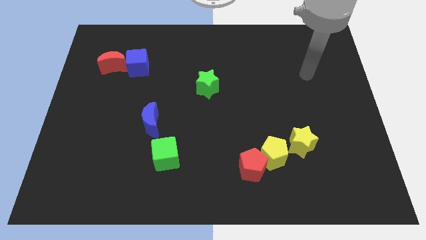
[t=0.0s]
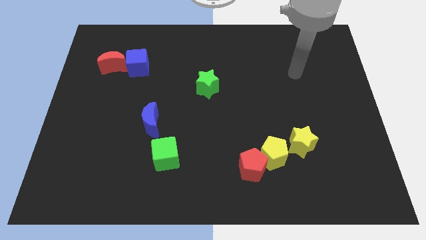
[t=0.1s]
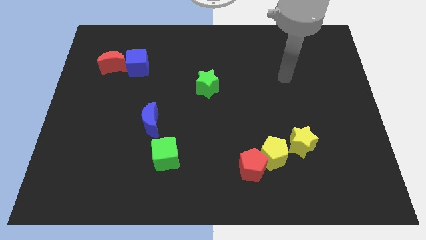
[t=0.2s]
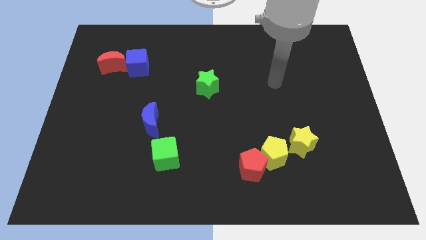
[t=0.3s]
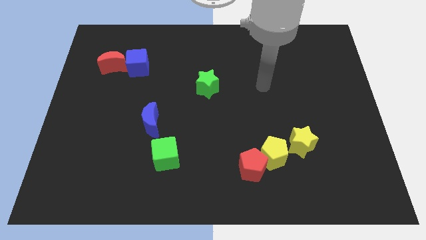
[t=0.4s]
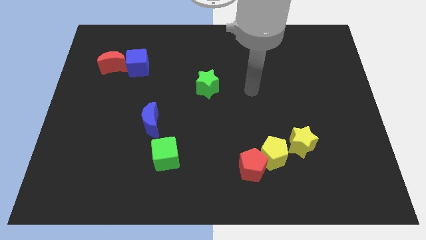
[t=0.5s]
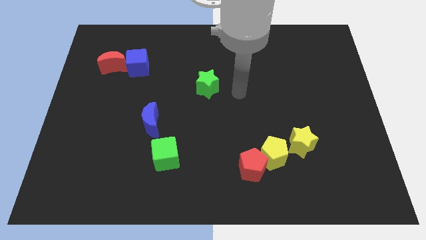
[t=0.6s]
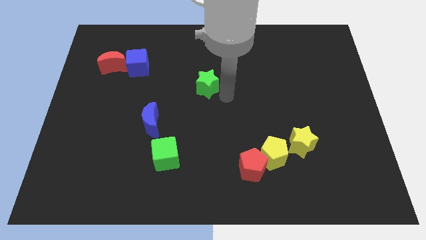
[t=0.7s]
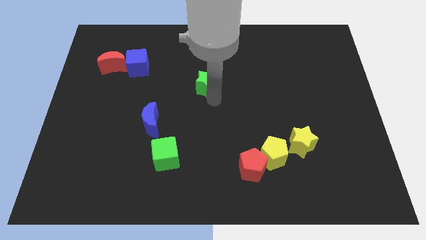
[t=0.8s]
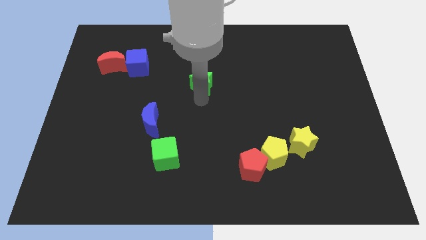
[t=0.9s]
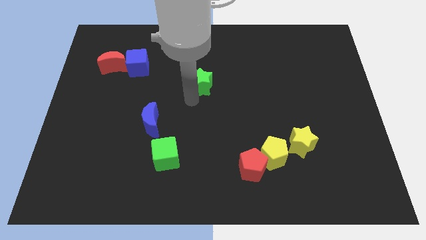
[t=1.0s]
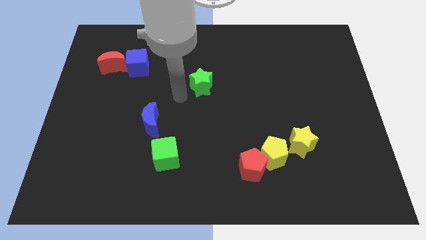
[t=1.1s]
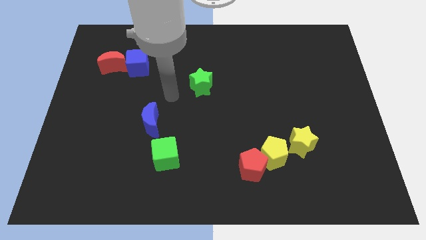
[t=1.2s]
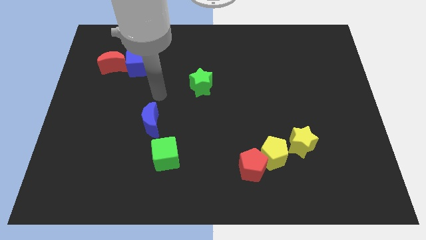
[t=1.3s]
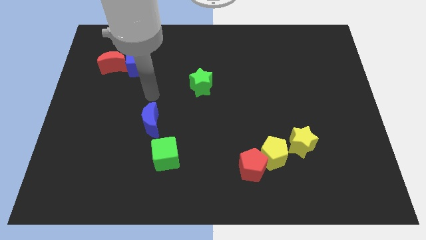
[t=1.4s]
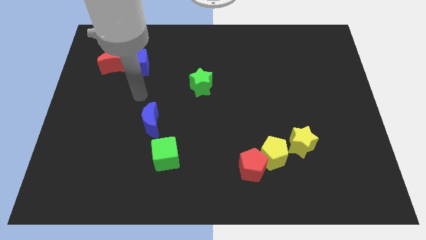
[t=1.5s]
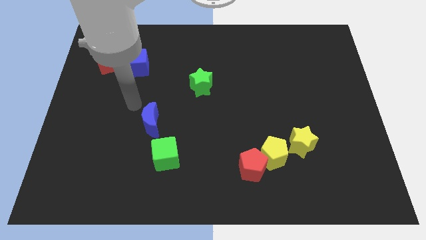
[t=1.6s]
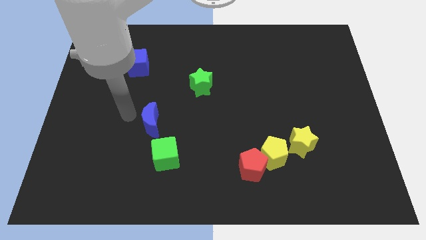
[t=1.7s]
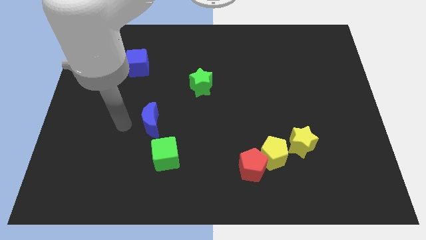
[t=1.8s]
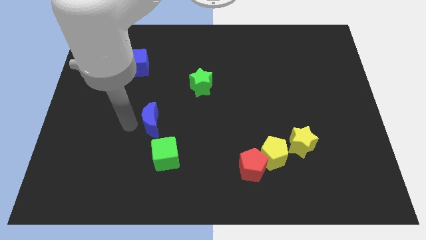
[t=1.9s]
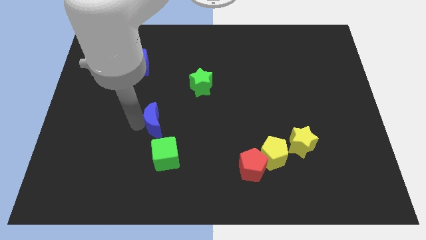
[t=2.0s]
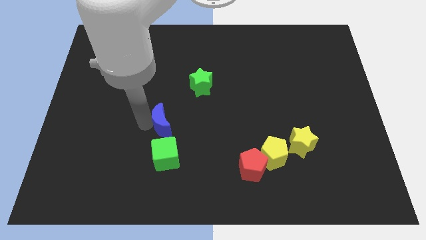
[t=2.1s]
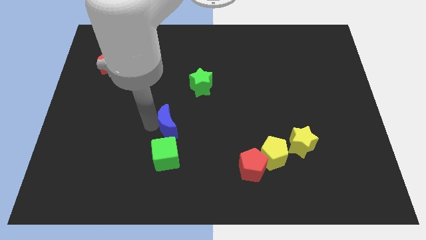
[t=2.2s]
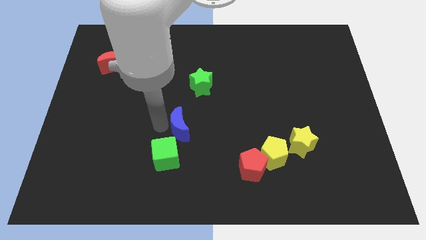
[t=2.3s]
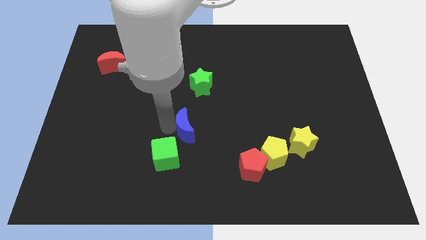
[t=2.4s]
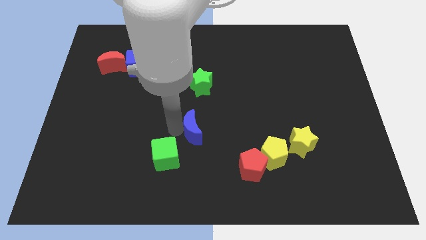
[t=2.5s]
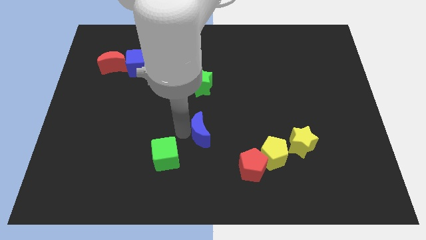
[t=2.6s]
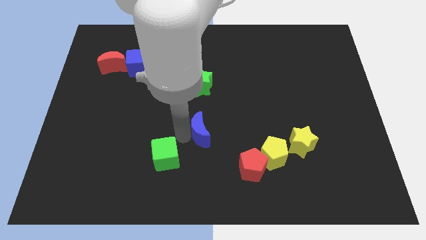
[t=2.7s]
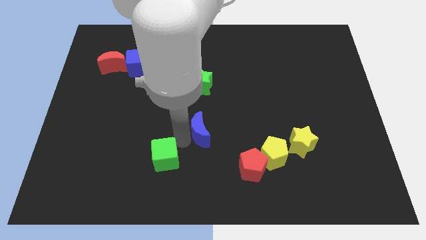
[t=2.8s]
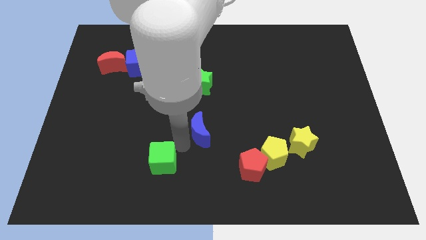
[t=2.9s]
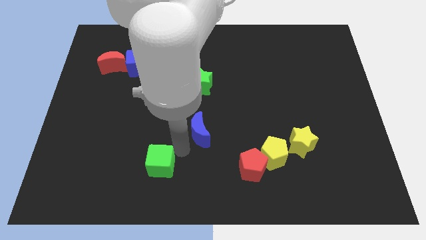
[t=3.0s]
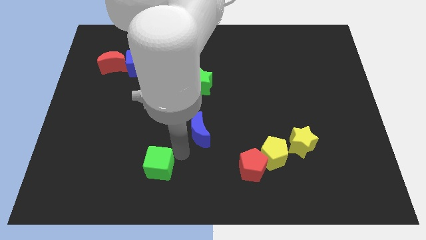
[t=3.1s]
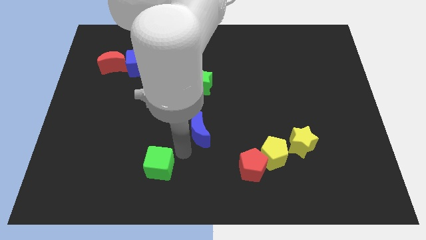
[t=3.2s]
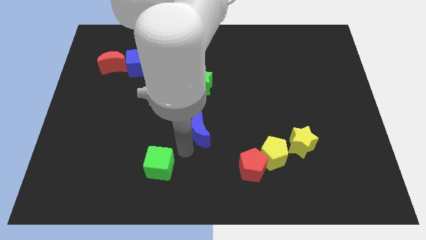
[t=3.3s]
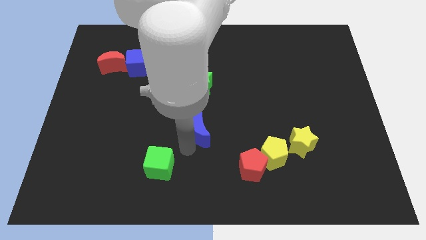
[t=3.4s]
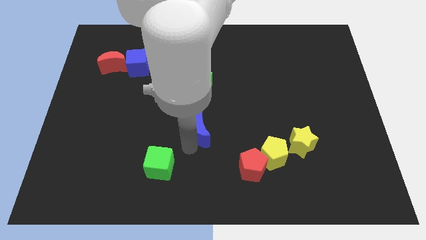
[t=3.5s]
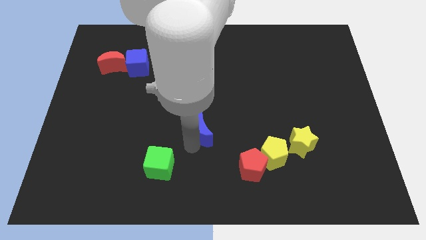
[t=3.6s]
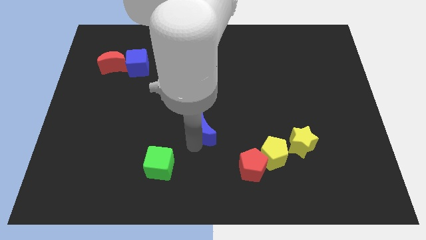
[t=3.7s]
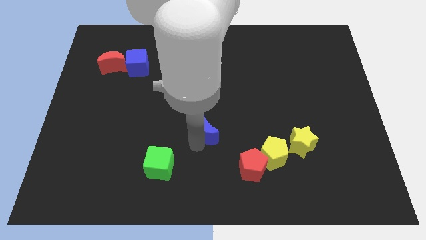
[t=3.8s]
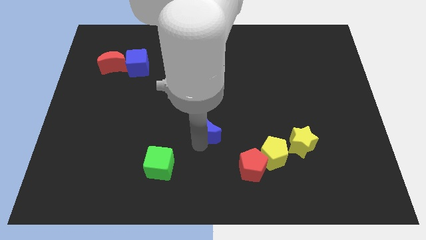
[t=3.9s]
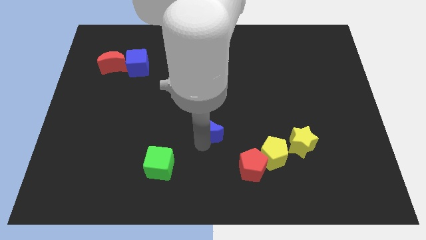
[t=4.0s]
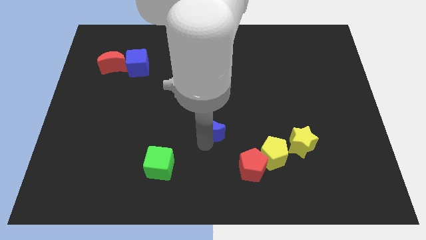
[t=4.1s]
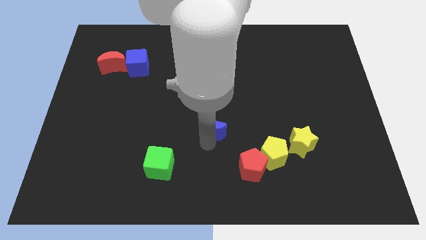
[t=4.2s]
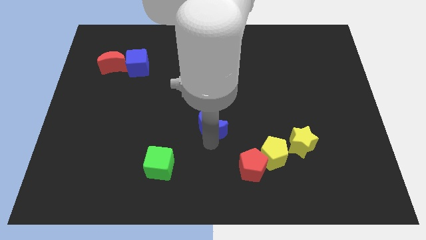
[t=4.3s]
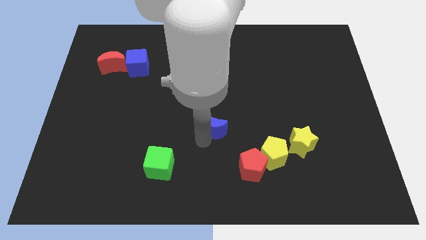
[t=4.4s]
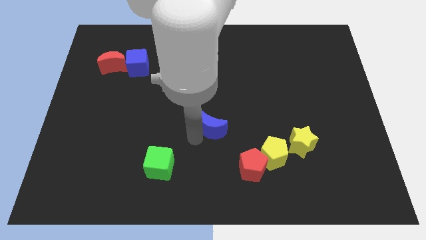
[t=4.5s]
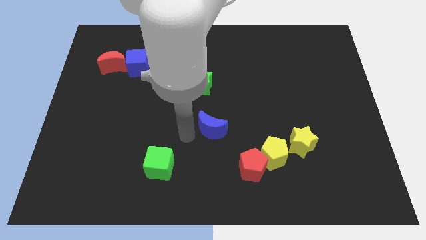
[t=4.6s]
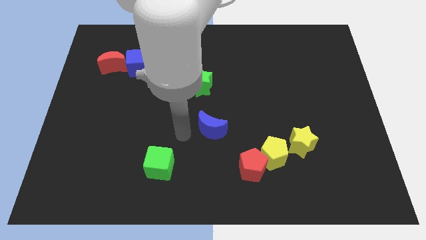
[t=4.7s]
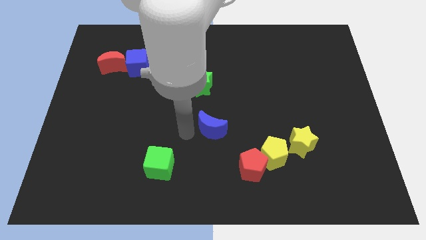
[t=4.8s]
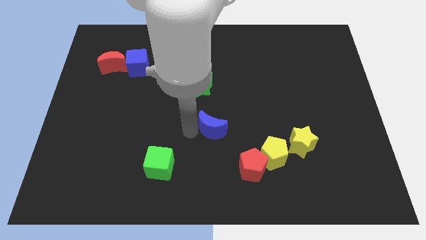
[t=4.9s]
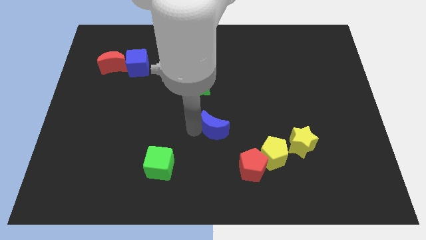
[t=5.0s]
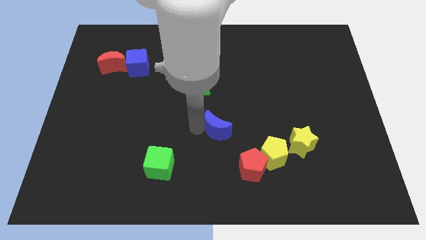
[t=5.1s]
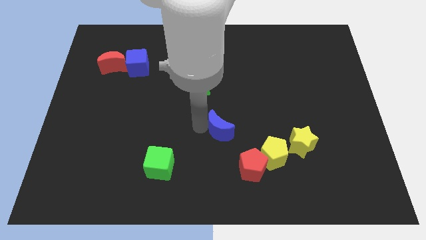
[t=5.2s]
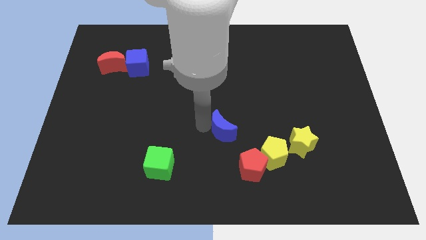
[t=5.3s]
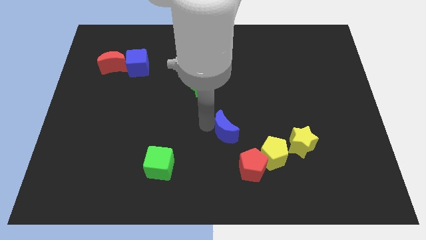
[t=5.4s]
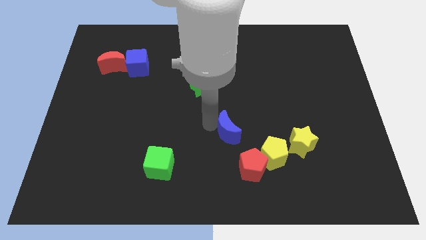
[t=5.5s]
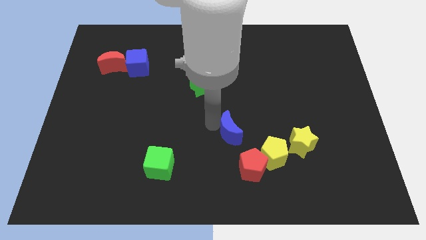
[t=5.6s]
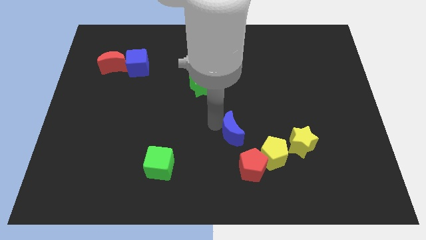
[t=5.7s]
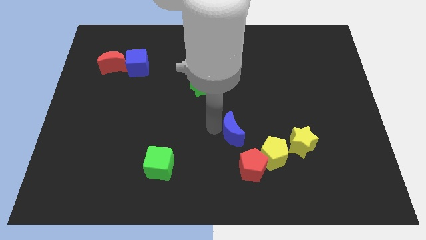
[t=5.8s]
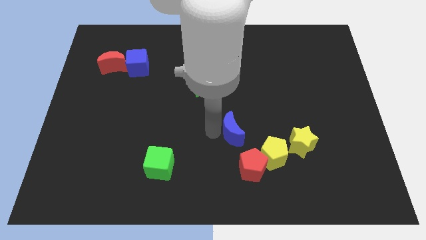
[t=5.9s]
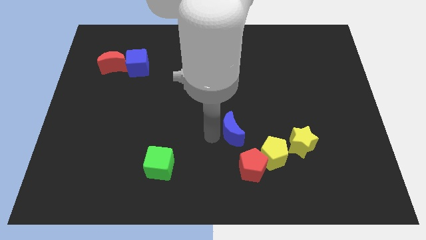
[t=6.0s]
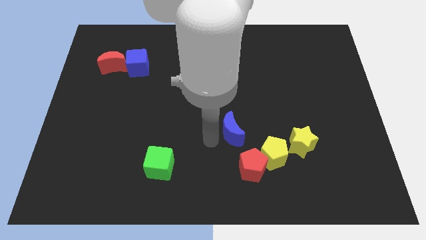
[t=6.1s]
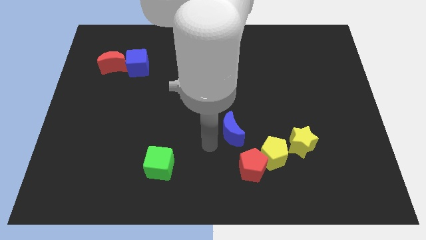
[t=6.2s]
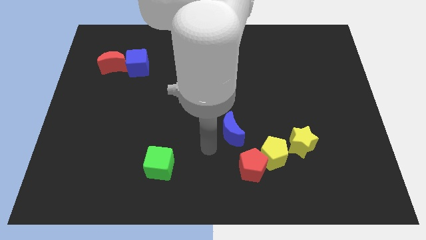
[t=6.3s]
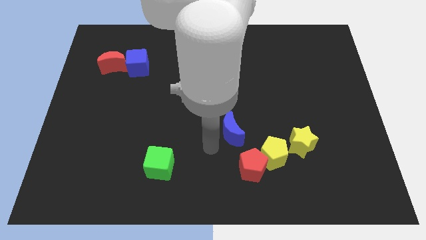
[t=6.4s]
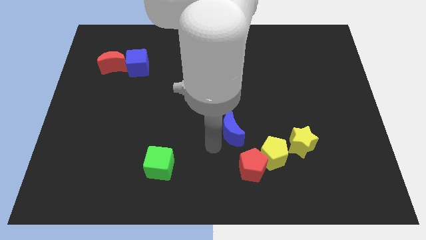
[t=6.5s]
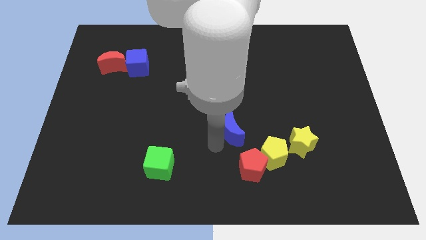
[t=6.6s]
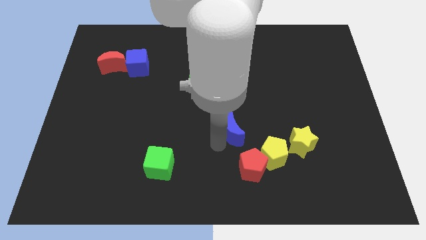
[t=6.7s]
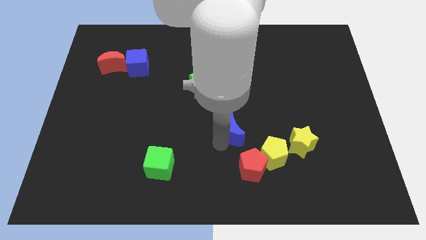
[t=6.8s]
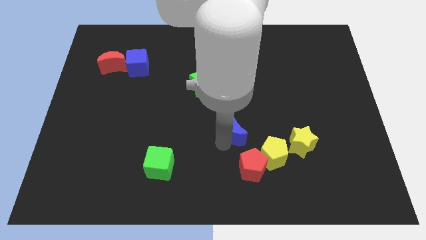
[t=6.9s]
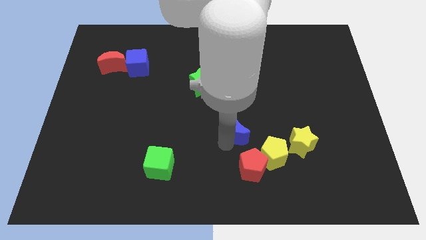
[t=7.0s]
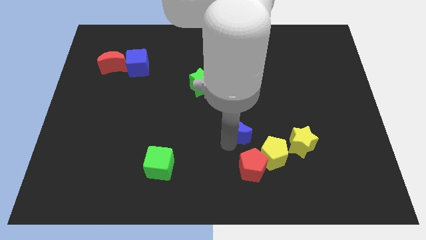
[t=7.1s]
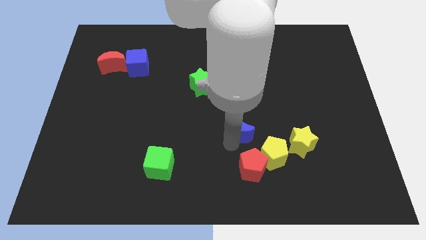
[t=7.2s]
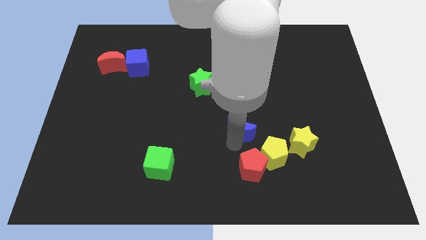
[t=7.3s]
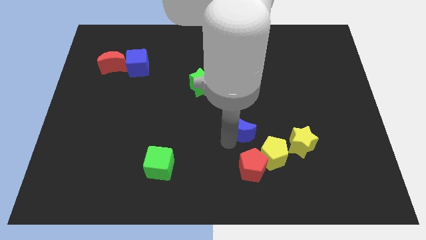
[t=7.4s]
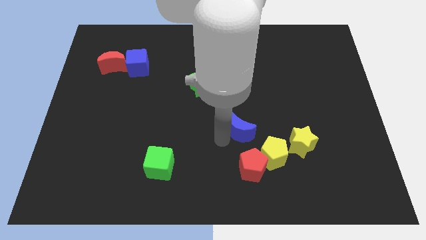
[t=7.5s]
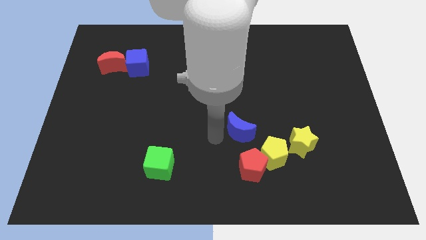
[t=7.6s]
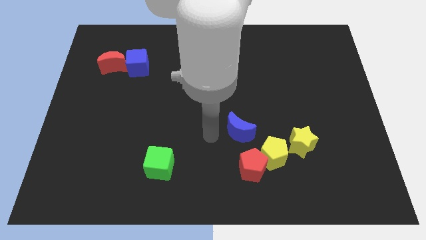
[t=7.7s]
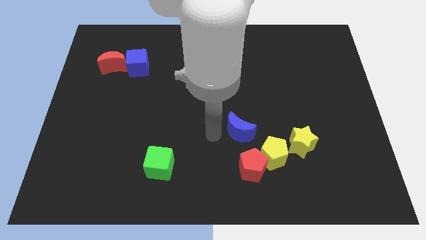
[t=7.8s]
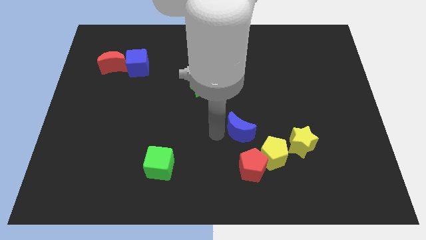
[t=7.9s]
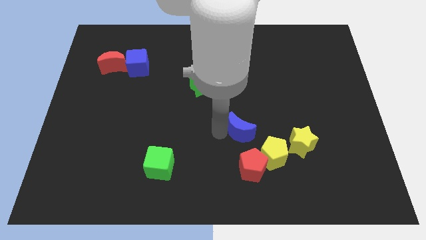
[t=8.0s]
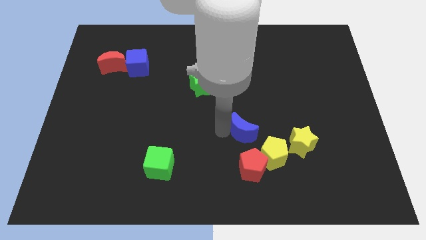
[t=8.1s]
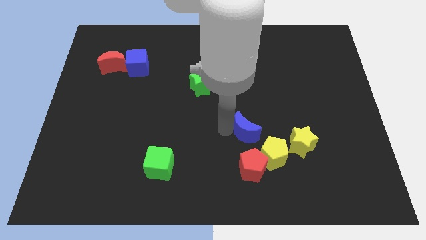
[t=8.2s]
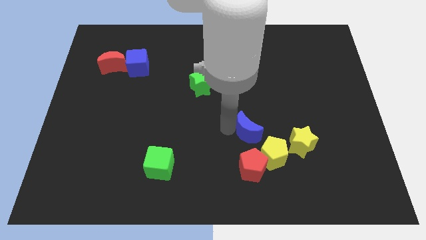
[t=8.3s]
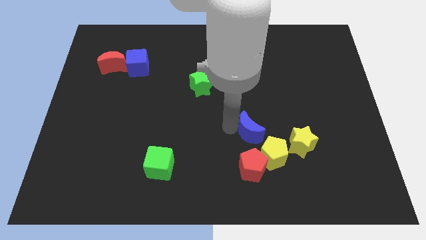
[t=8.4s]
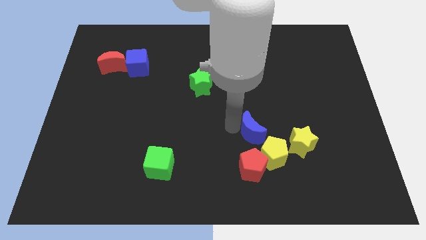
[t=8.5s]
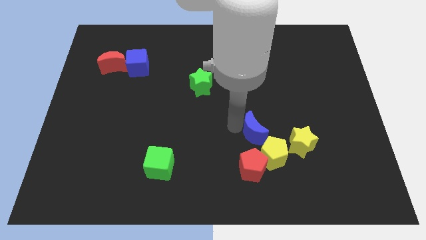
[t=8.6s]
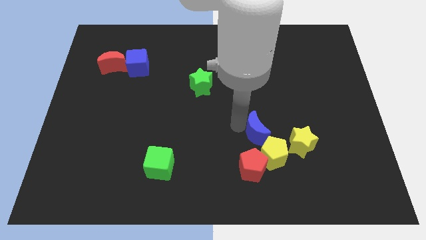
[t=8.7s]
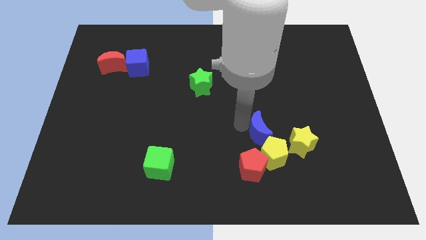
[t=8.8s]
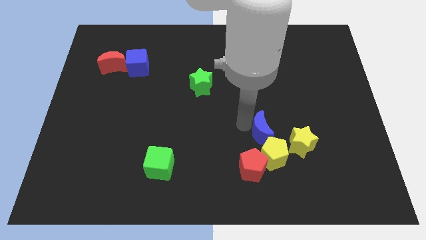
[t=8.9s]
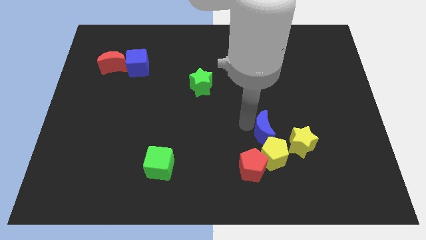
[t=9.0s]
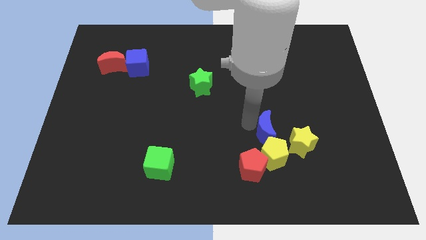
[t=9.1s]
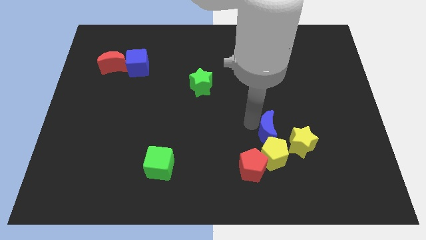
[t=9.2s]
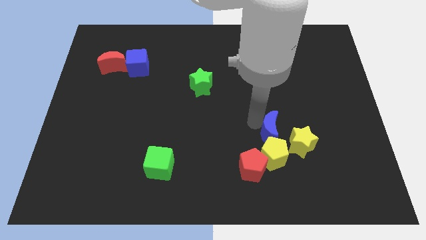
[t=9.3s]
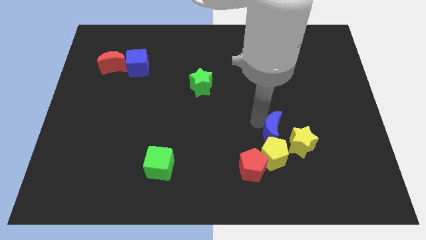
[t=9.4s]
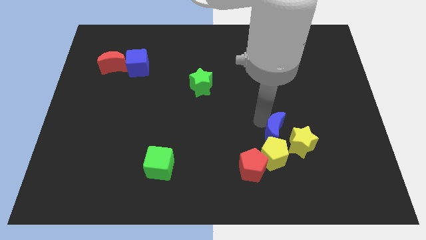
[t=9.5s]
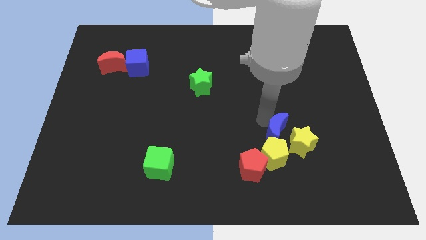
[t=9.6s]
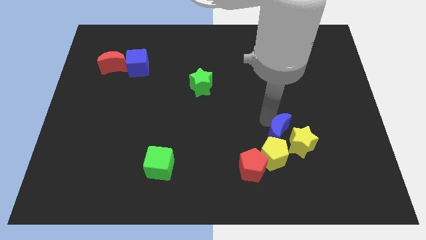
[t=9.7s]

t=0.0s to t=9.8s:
put the blue moon next to the yellow star
